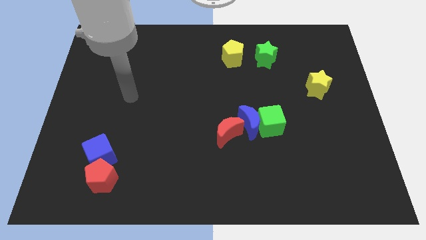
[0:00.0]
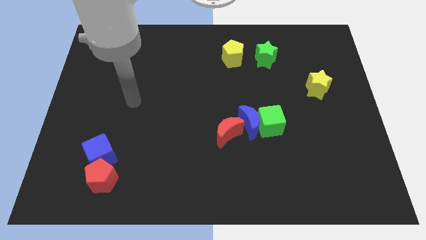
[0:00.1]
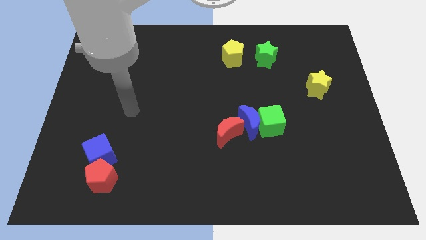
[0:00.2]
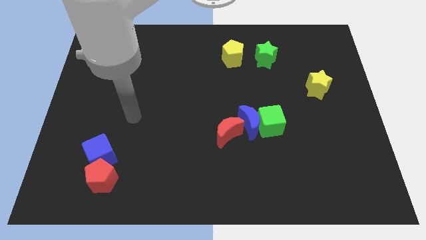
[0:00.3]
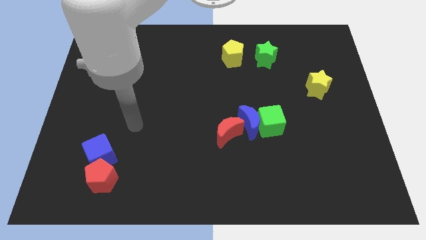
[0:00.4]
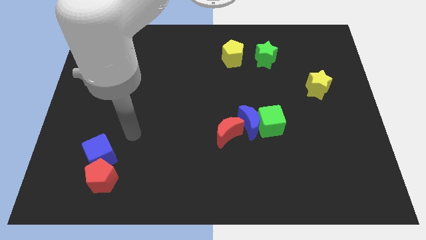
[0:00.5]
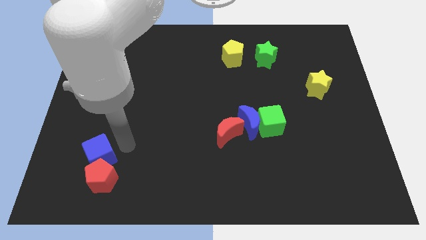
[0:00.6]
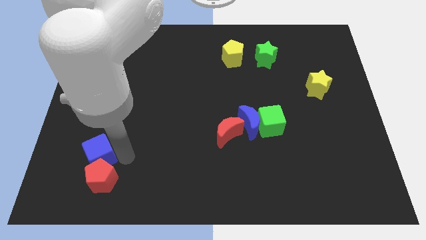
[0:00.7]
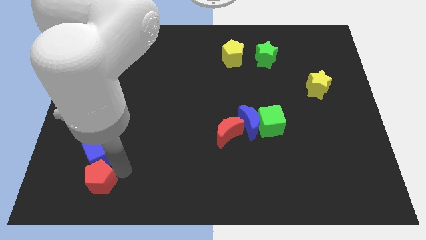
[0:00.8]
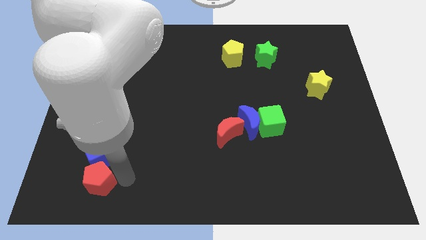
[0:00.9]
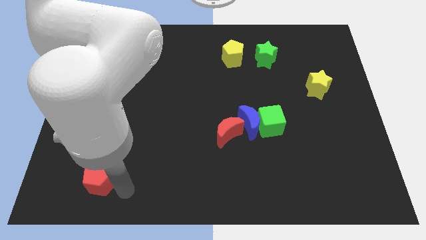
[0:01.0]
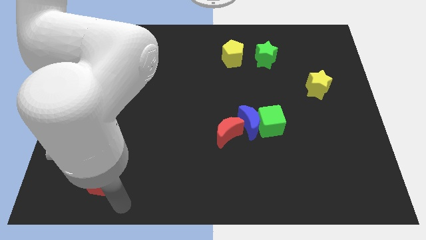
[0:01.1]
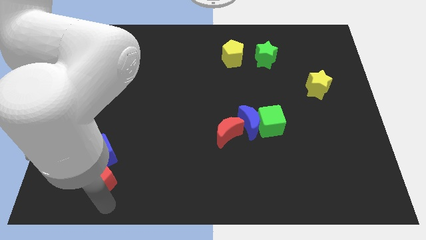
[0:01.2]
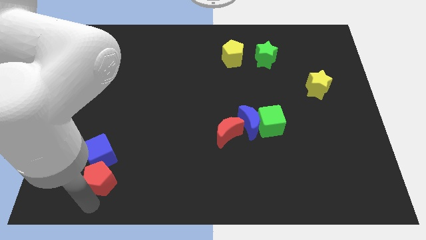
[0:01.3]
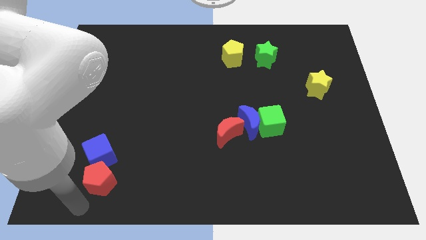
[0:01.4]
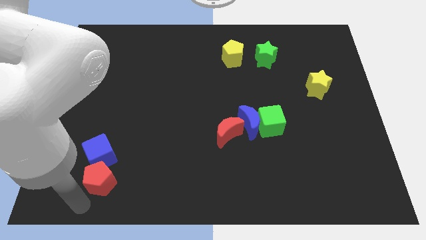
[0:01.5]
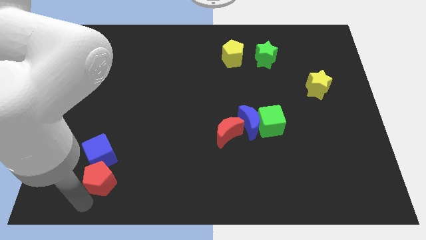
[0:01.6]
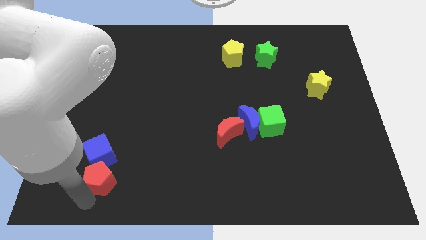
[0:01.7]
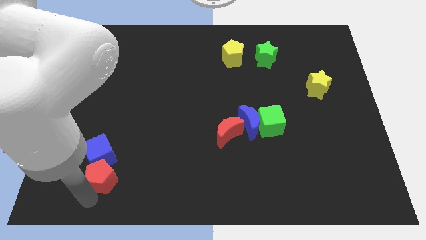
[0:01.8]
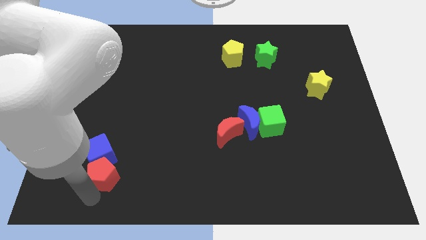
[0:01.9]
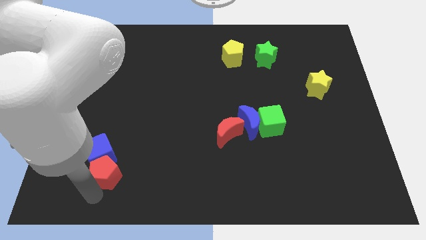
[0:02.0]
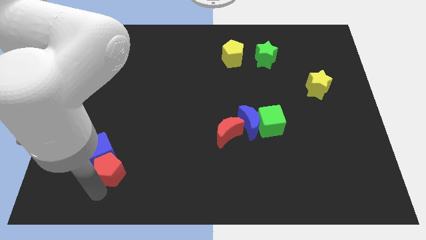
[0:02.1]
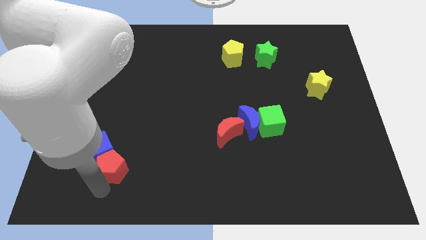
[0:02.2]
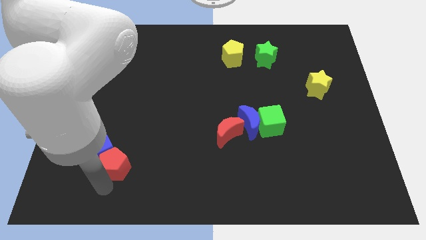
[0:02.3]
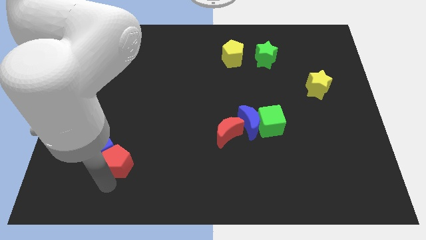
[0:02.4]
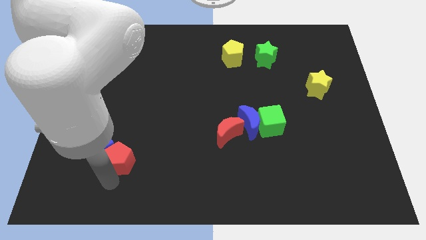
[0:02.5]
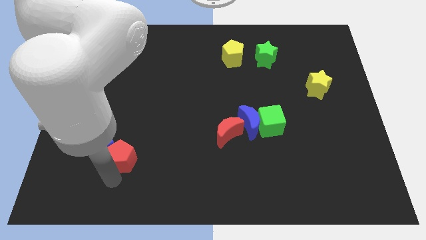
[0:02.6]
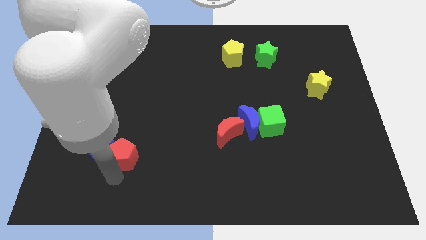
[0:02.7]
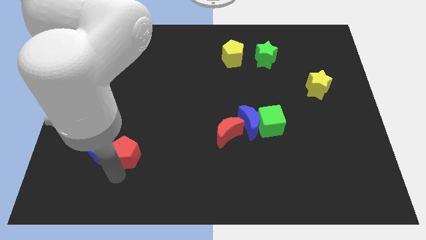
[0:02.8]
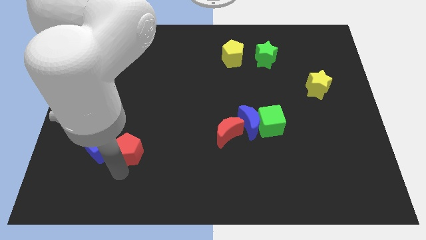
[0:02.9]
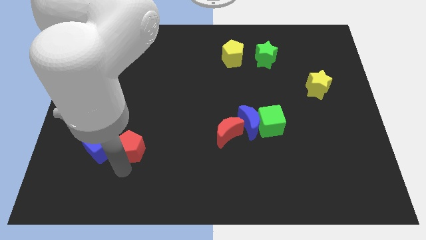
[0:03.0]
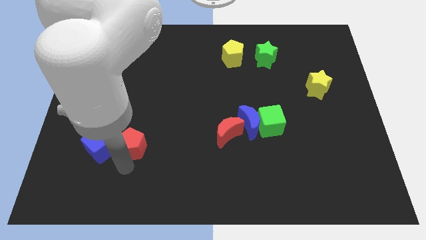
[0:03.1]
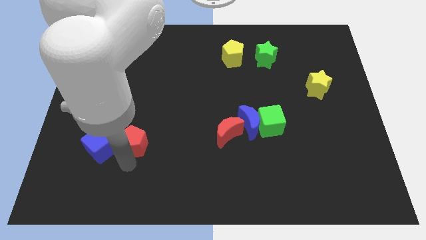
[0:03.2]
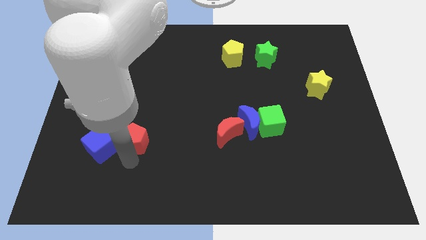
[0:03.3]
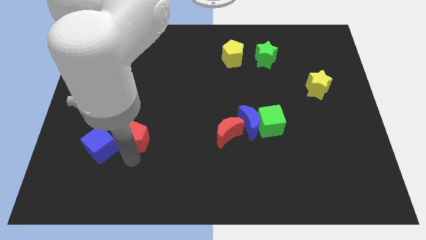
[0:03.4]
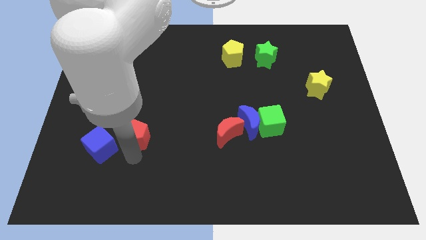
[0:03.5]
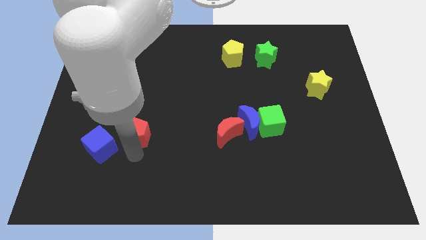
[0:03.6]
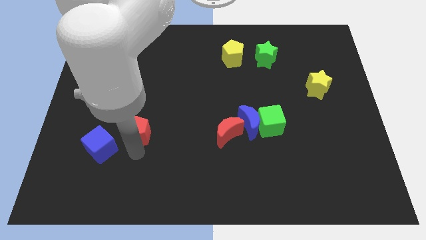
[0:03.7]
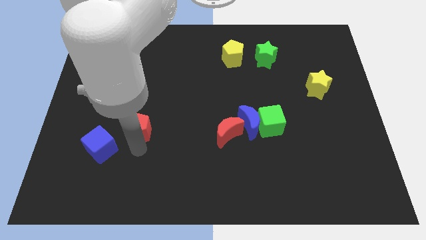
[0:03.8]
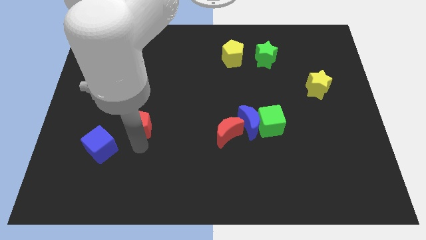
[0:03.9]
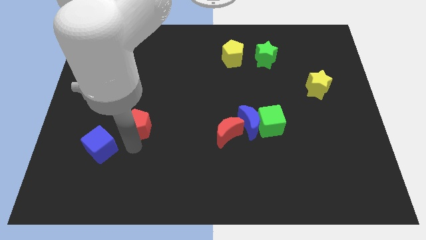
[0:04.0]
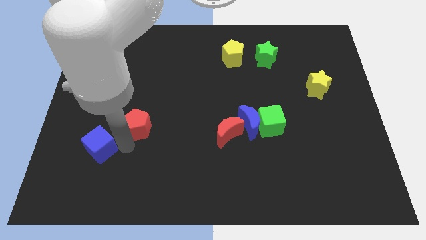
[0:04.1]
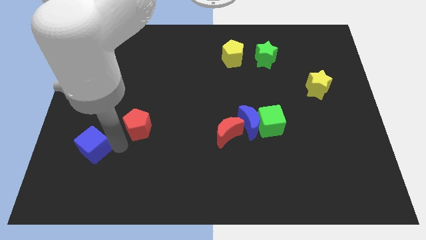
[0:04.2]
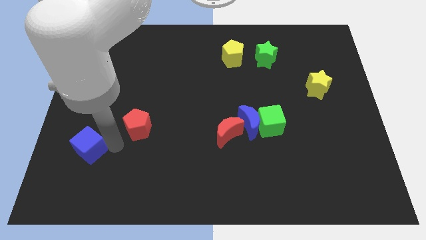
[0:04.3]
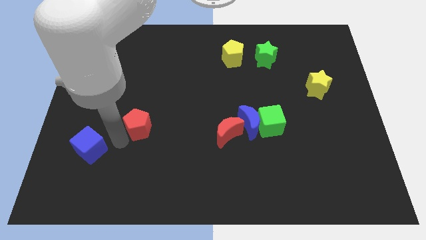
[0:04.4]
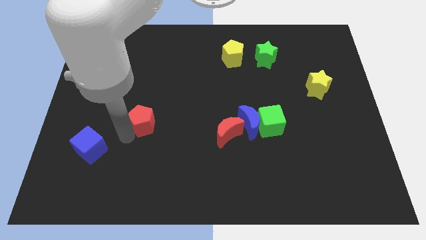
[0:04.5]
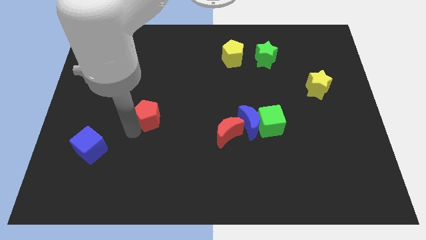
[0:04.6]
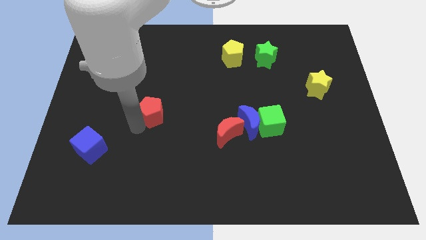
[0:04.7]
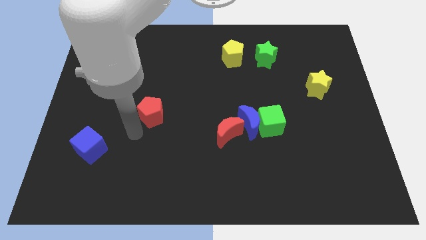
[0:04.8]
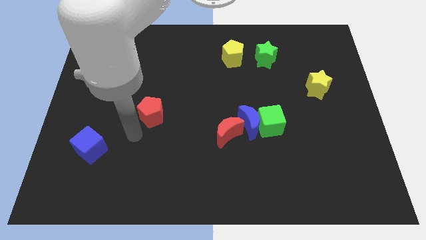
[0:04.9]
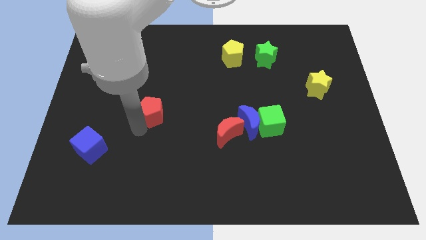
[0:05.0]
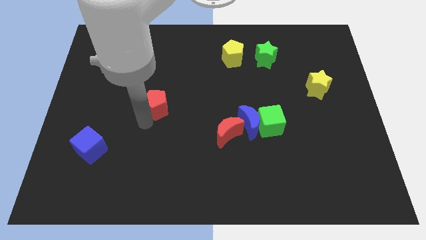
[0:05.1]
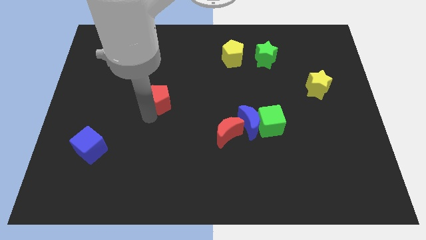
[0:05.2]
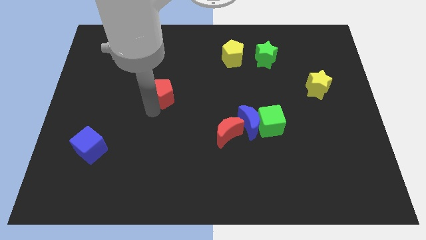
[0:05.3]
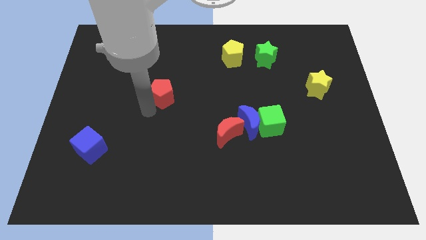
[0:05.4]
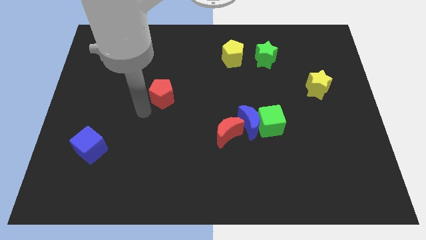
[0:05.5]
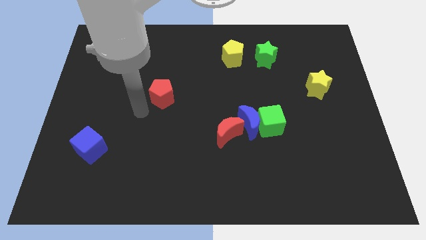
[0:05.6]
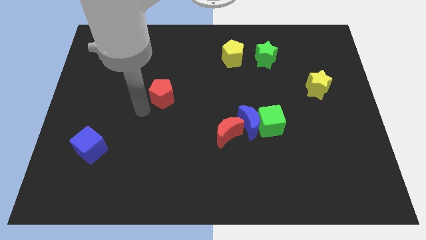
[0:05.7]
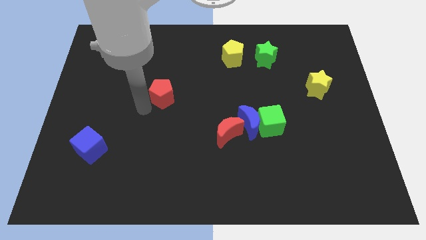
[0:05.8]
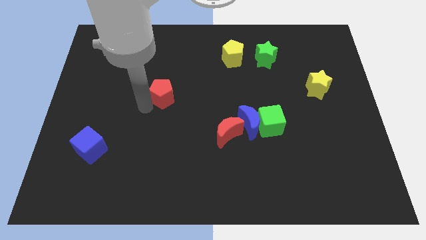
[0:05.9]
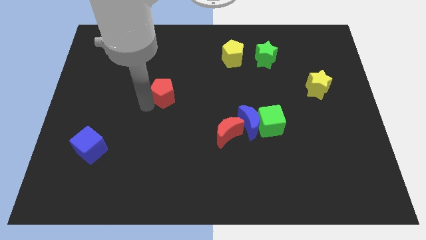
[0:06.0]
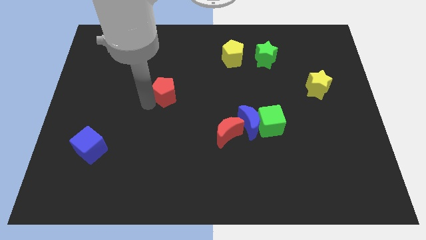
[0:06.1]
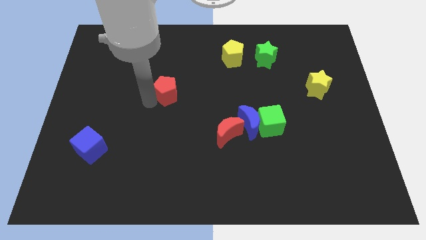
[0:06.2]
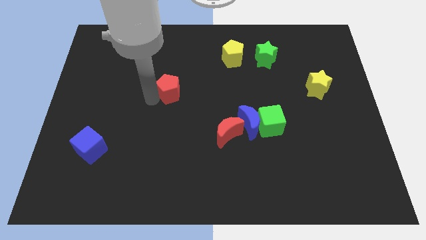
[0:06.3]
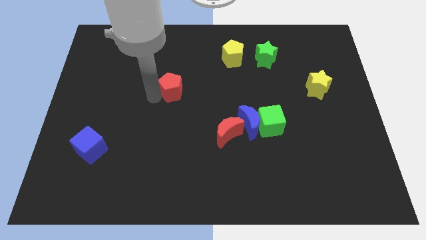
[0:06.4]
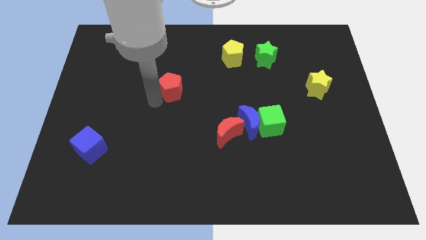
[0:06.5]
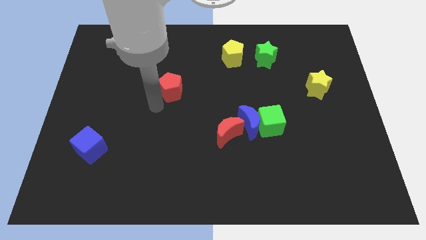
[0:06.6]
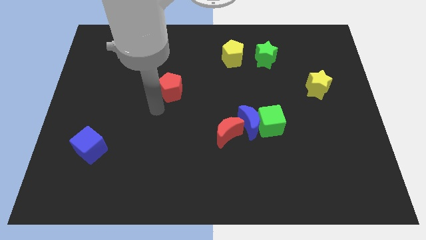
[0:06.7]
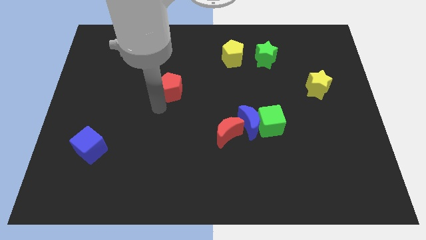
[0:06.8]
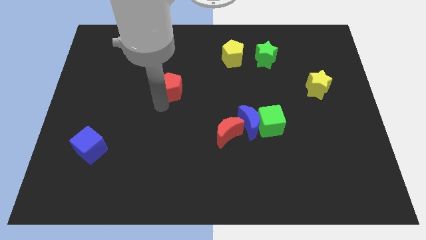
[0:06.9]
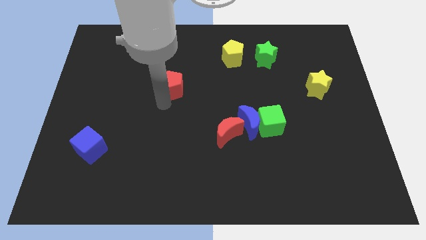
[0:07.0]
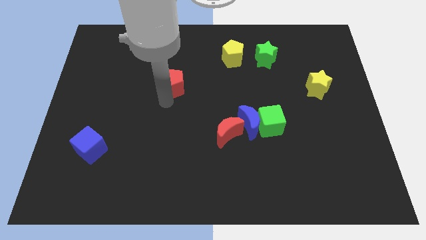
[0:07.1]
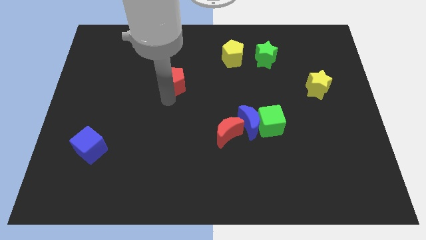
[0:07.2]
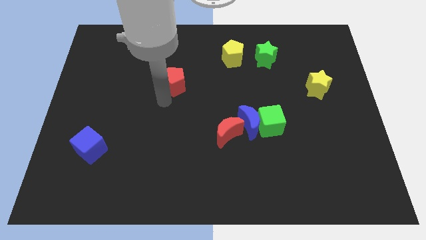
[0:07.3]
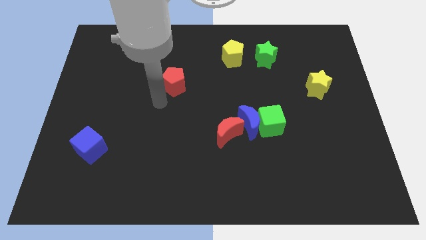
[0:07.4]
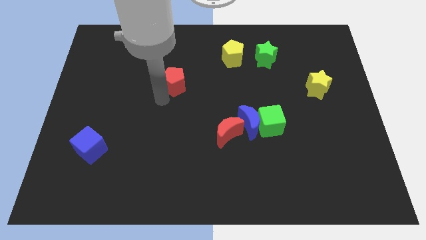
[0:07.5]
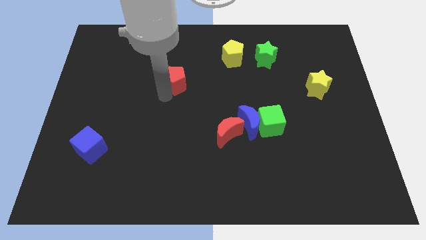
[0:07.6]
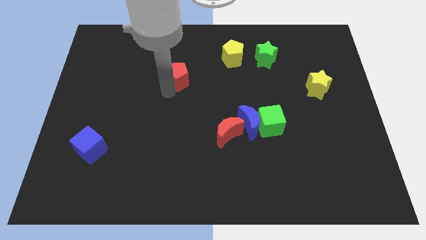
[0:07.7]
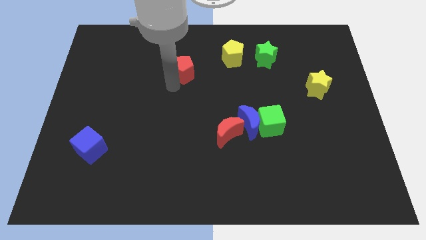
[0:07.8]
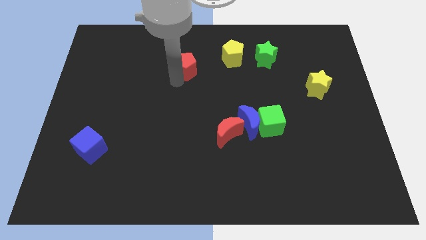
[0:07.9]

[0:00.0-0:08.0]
push the red pentagon to the left side of the yellow pentagon
